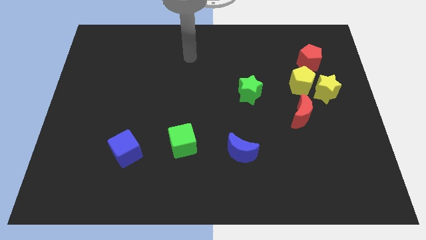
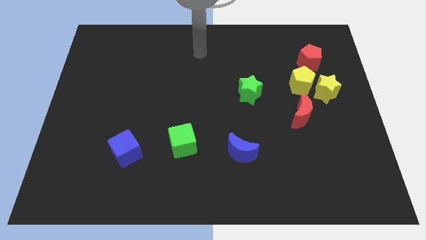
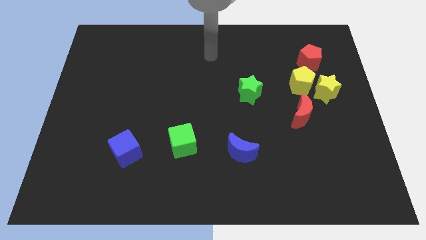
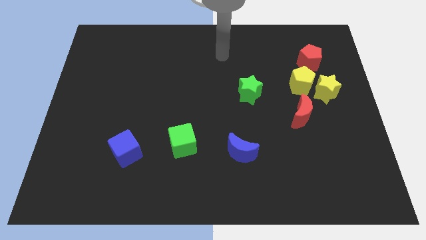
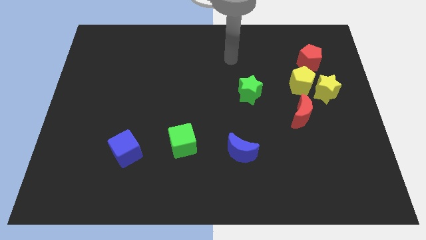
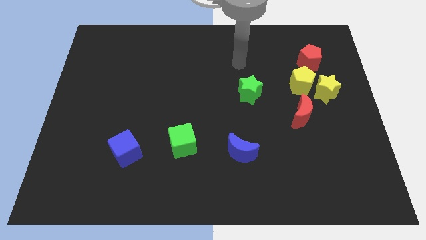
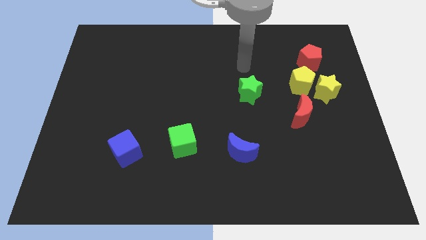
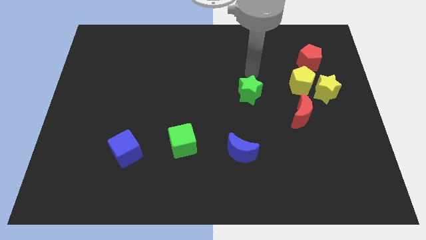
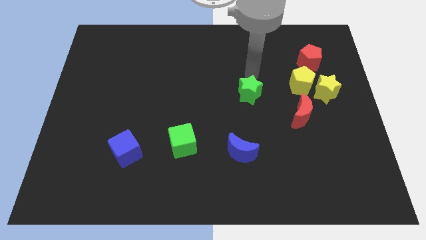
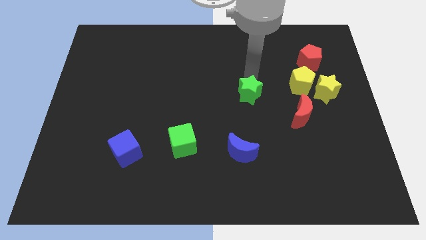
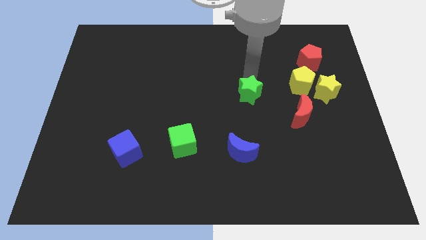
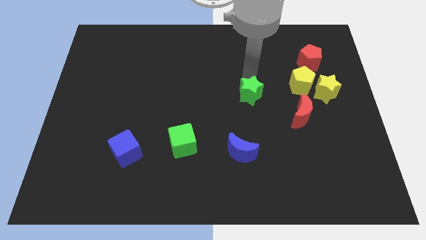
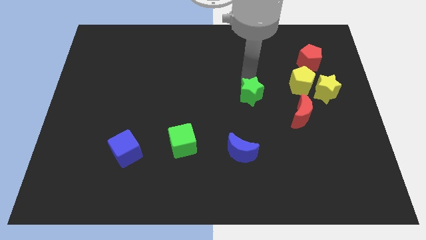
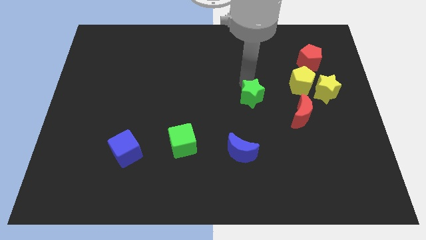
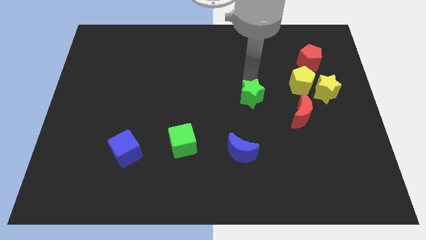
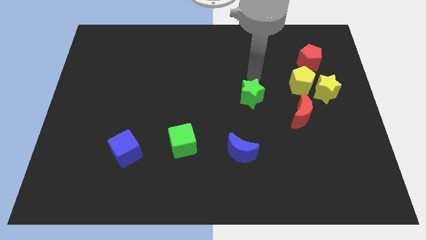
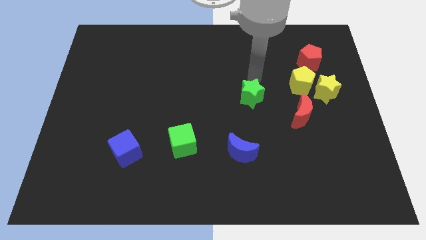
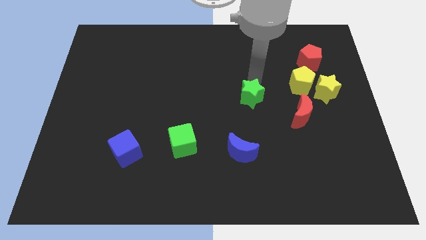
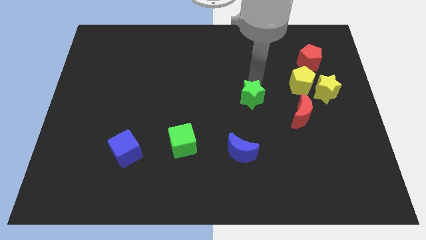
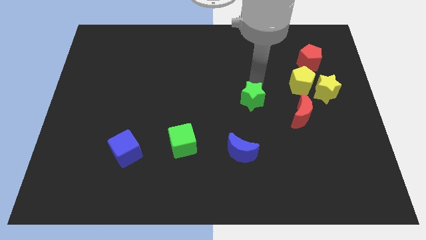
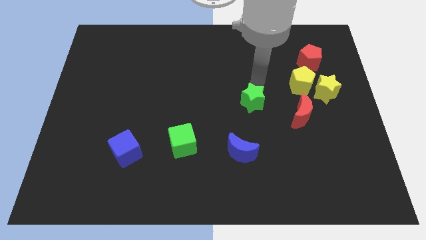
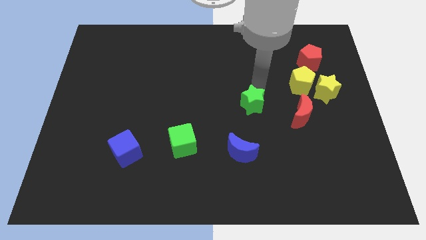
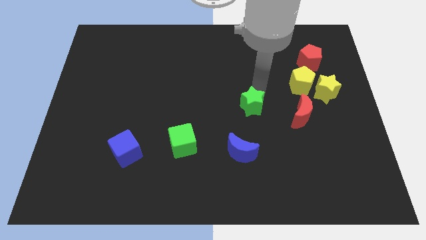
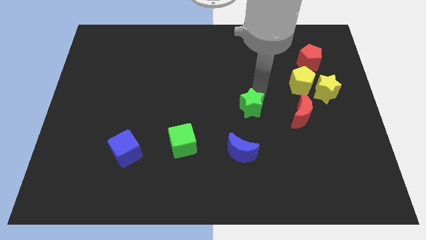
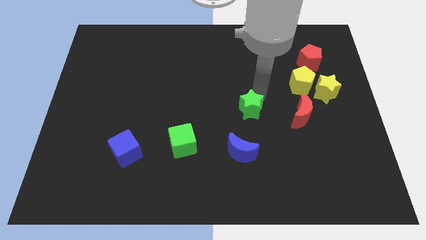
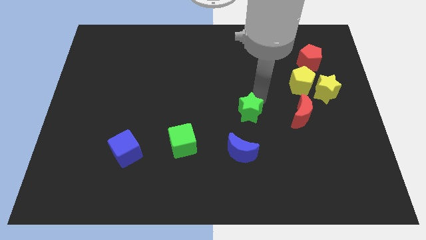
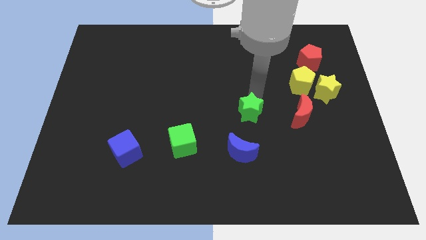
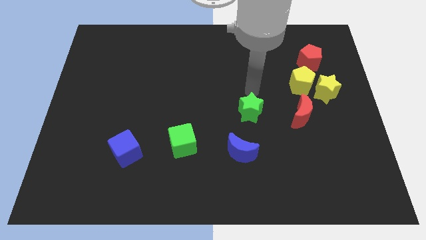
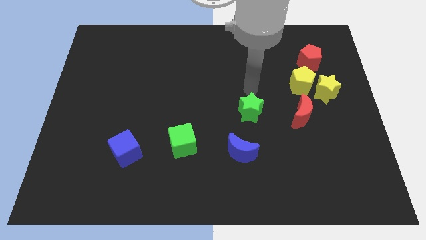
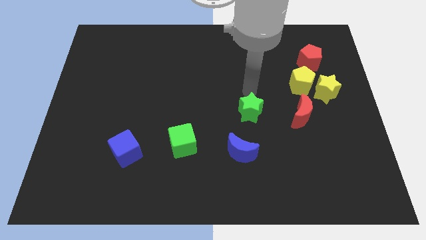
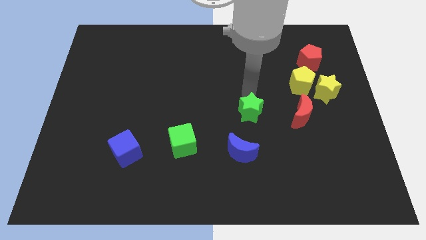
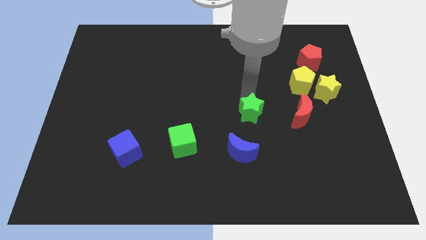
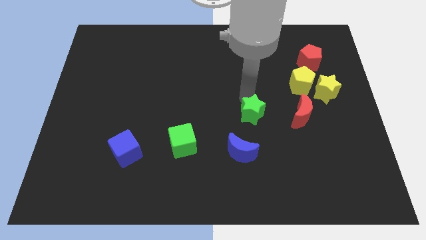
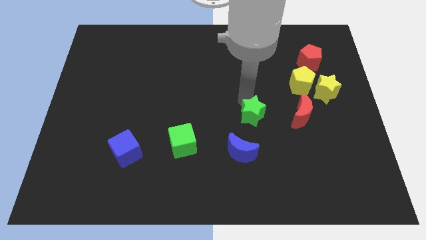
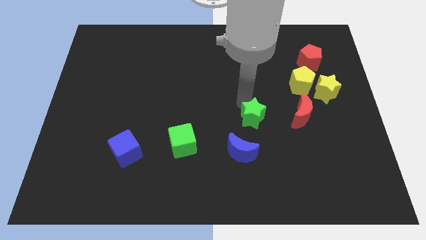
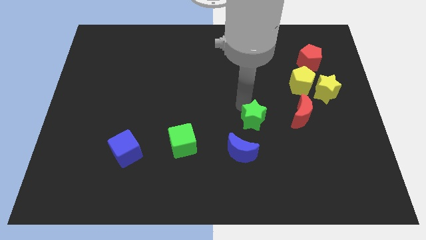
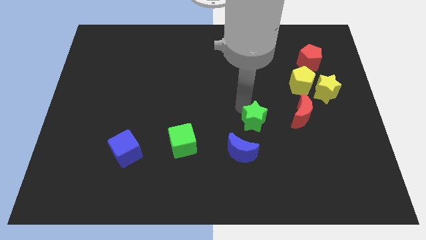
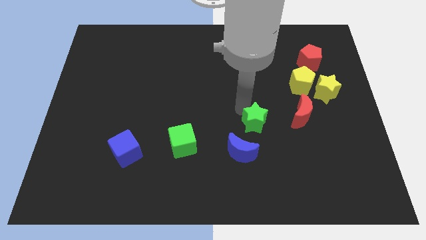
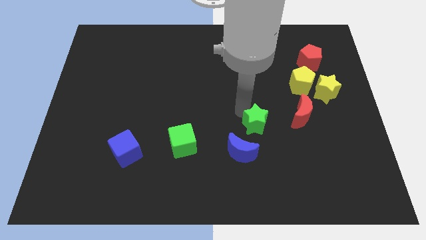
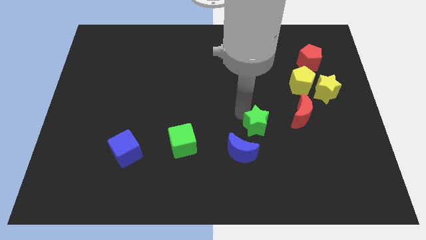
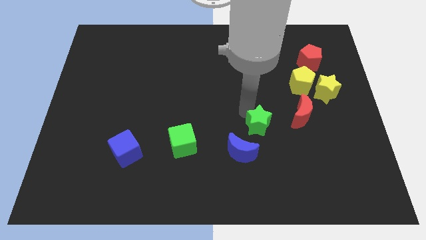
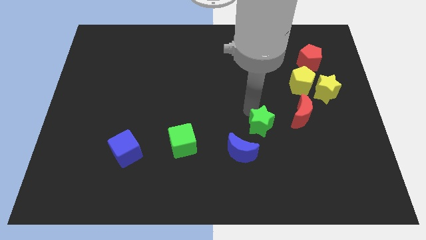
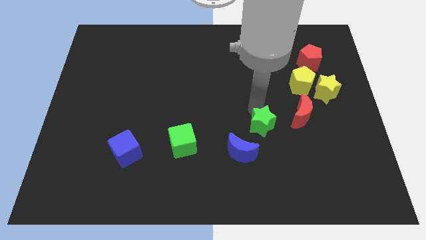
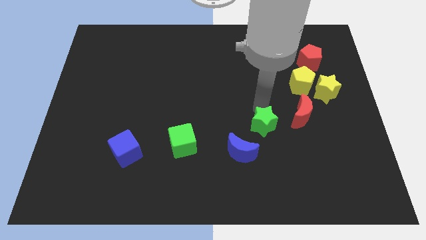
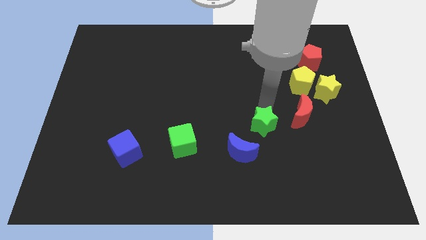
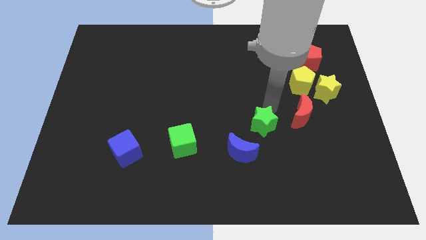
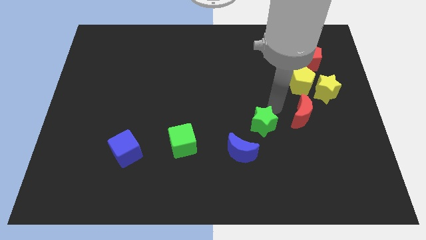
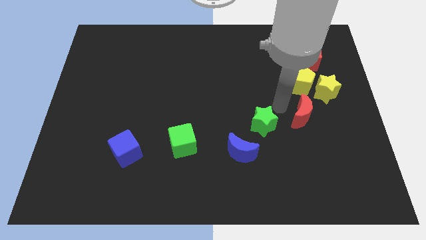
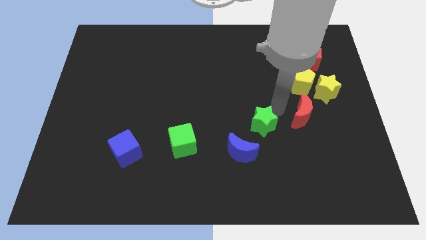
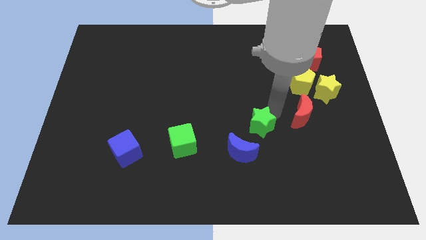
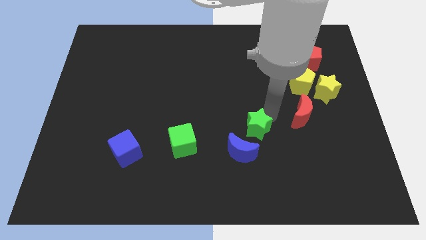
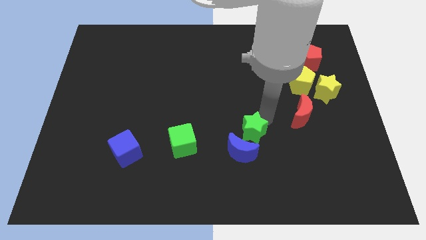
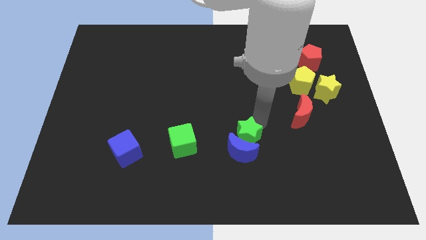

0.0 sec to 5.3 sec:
push the green star to the blue moon

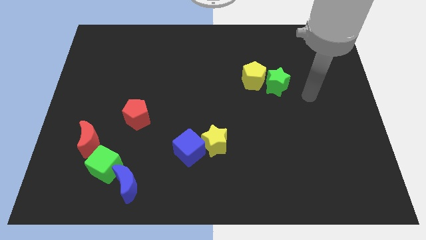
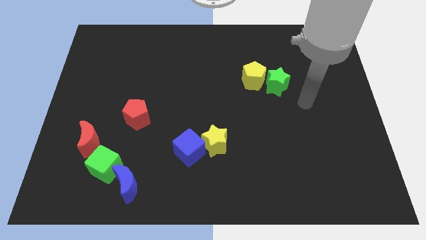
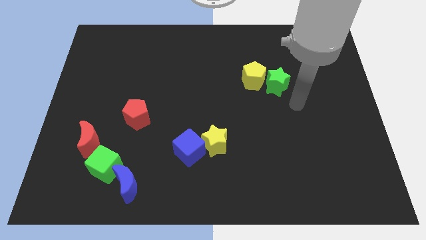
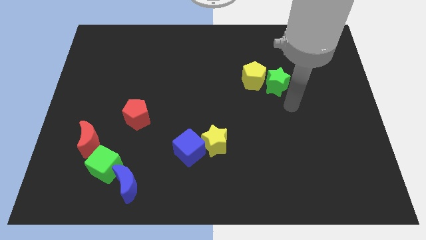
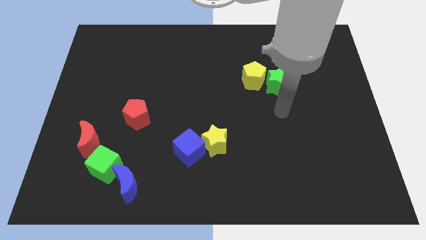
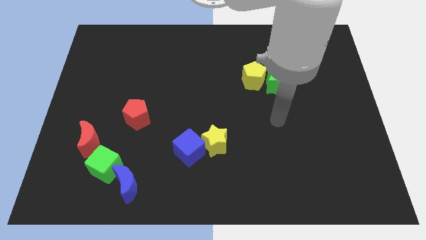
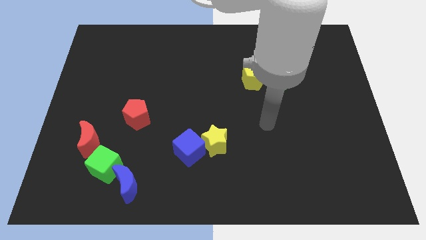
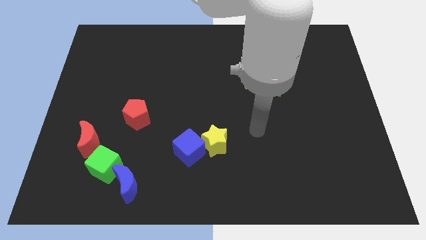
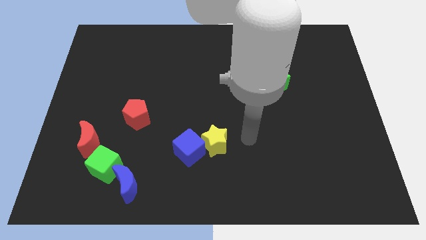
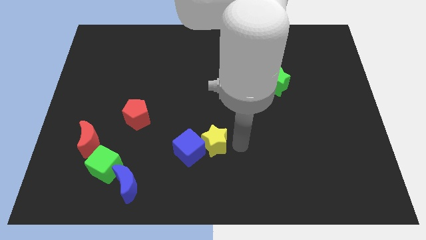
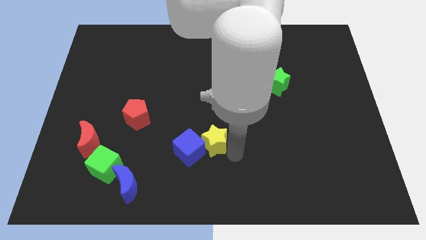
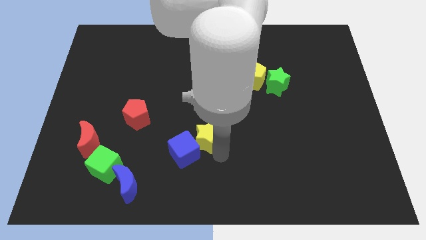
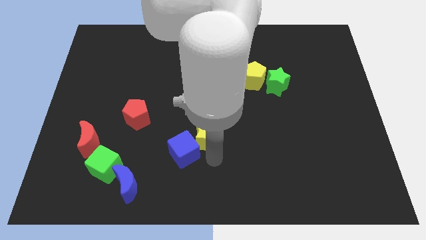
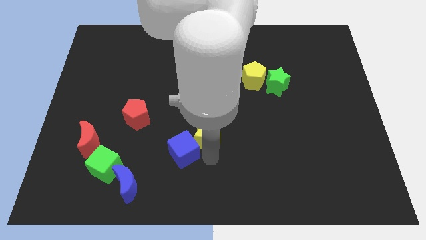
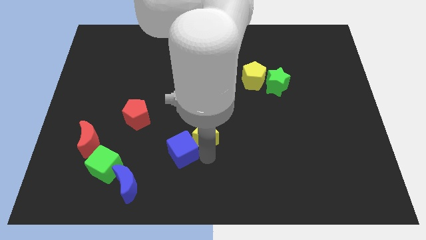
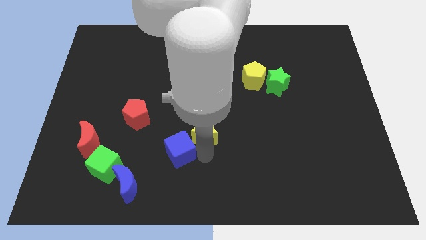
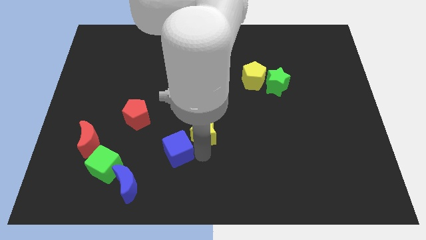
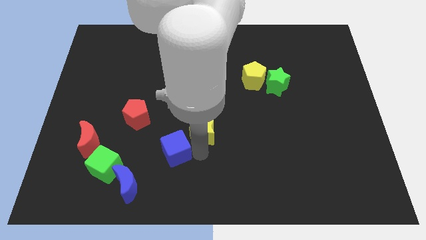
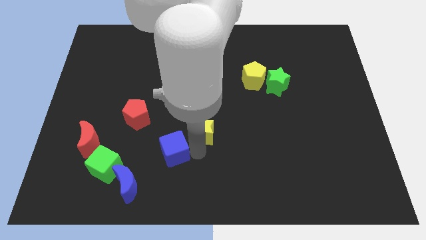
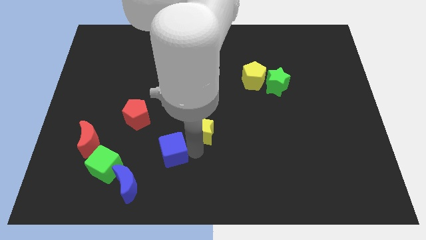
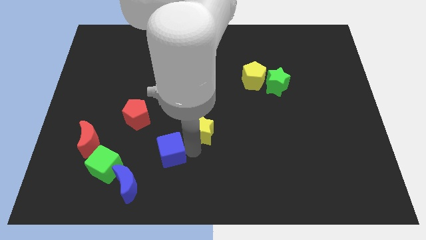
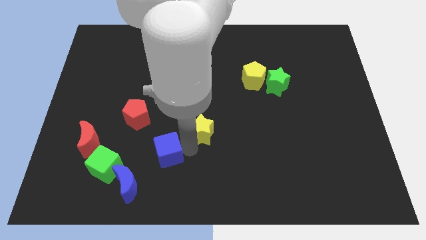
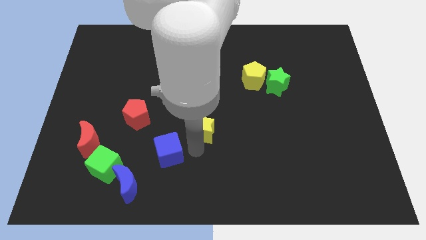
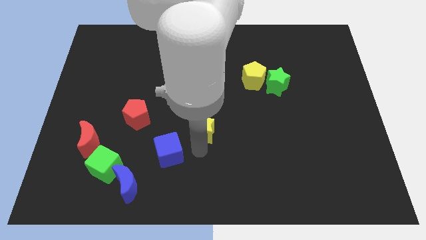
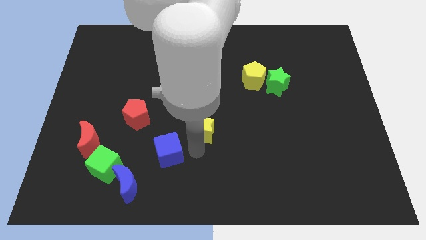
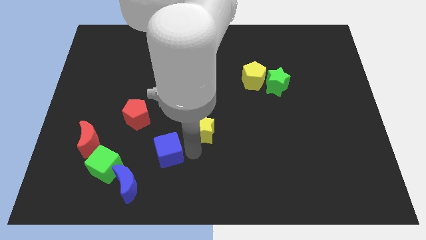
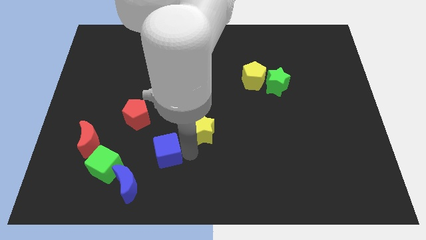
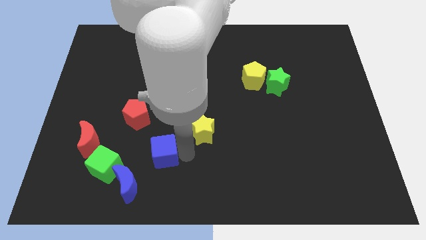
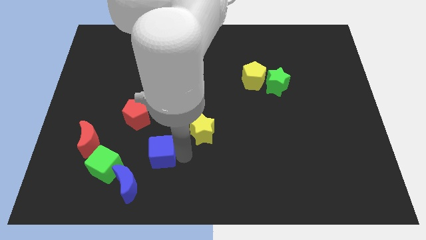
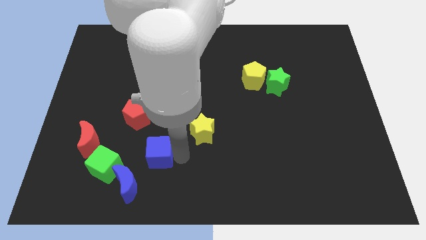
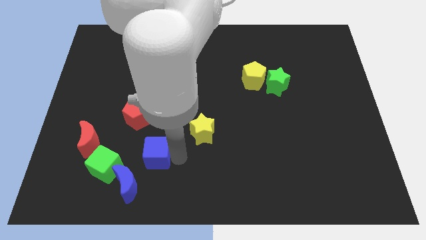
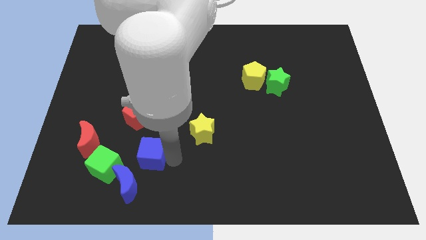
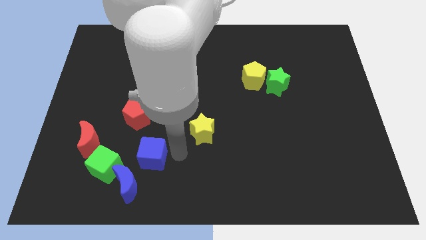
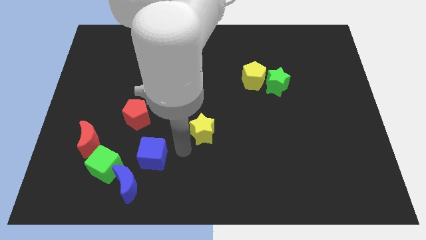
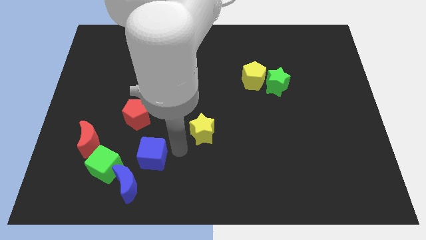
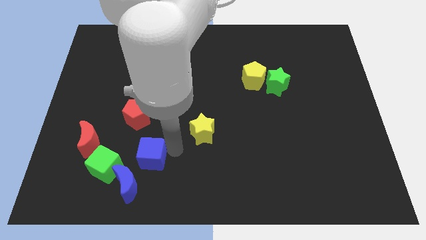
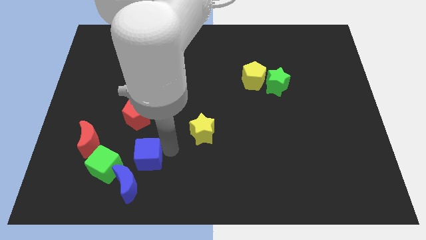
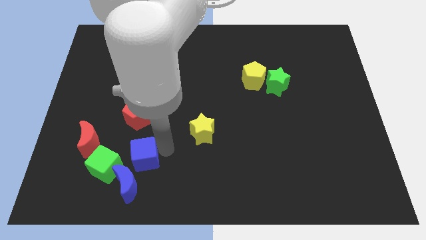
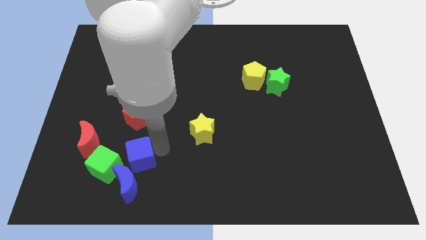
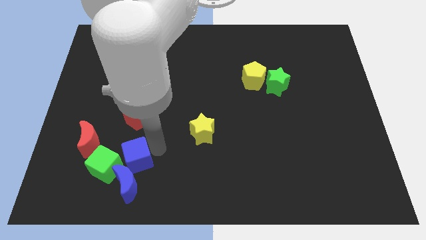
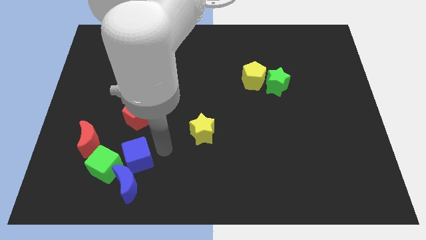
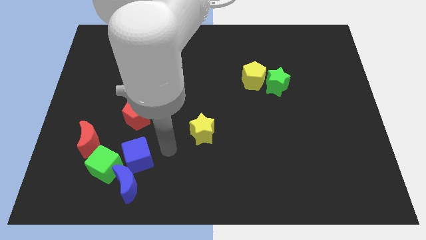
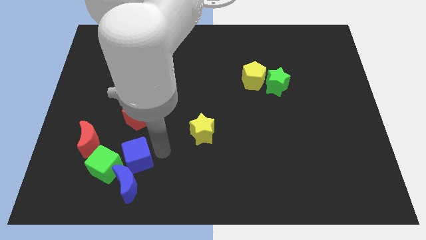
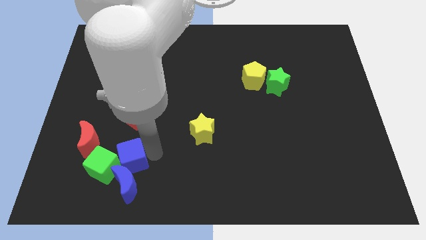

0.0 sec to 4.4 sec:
push the blue cube next to the green cube
